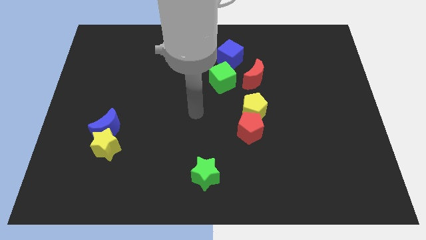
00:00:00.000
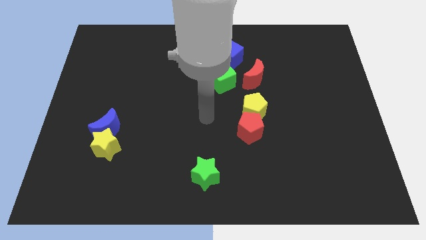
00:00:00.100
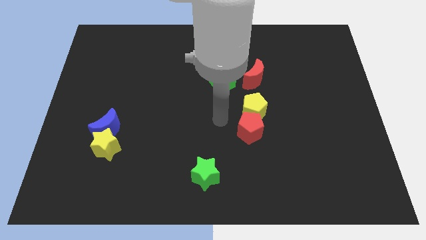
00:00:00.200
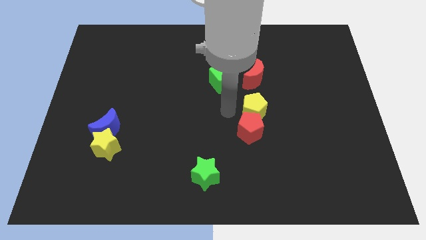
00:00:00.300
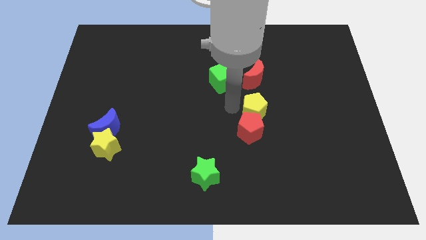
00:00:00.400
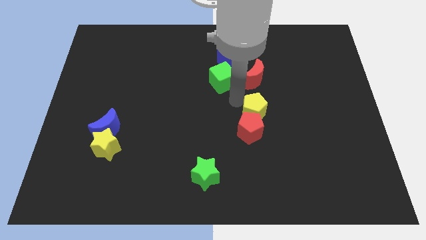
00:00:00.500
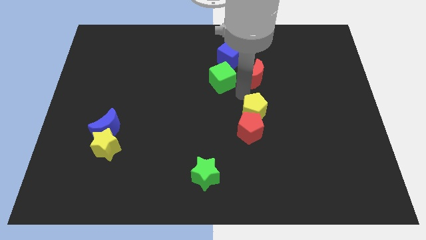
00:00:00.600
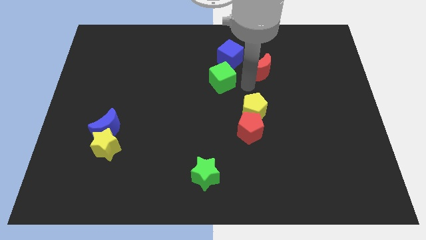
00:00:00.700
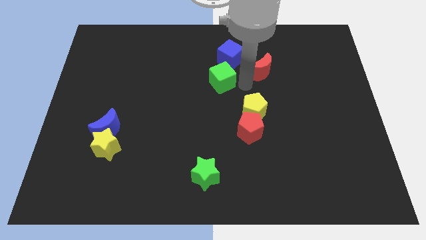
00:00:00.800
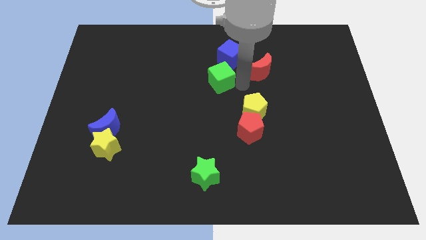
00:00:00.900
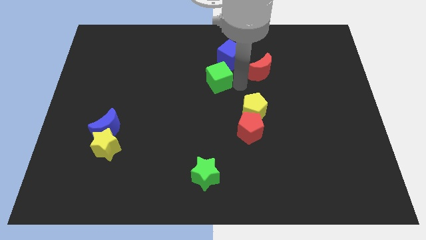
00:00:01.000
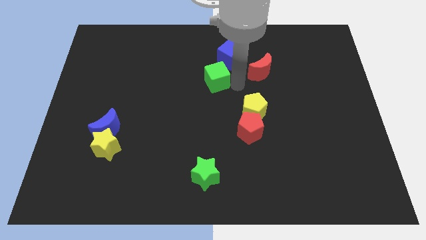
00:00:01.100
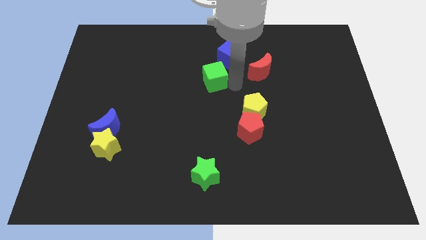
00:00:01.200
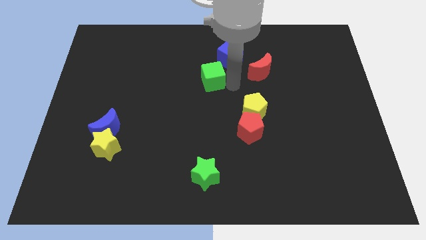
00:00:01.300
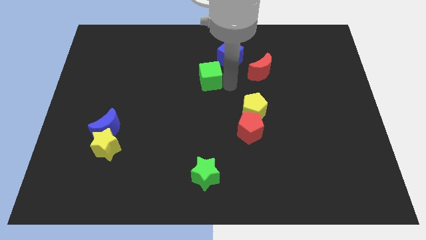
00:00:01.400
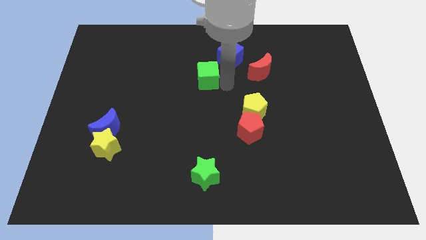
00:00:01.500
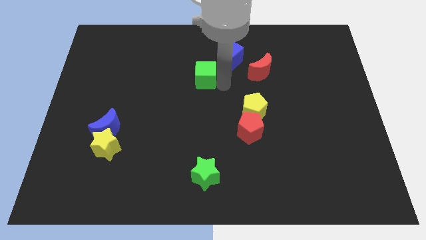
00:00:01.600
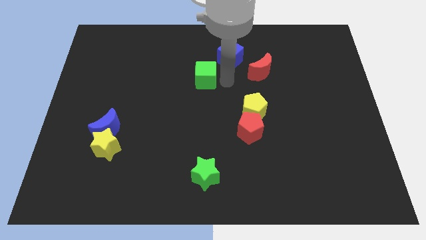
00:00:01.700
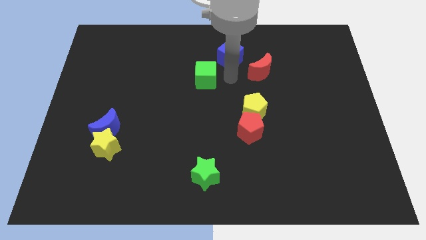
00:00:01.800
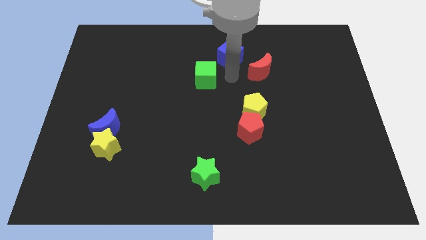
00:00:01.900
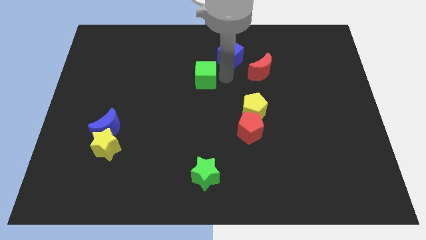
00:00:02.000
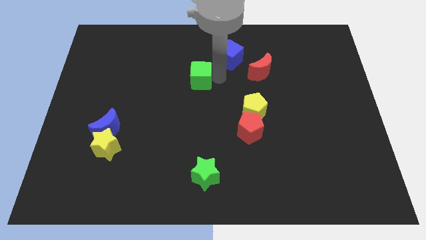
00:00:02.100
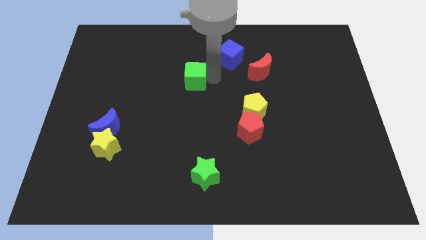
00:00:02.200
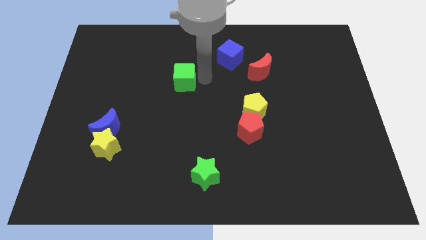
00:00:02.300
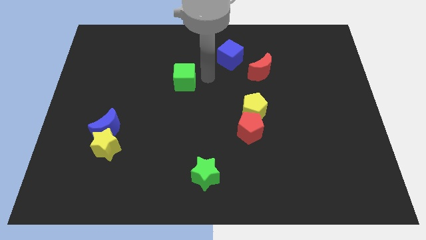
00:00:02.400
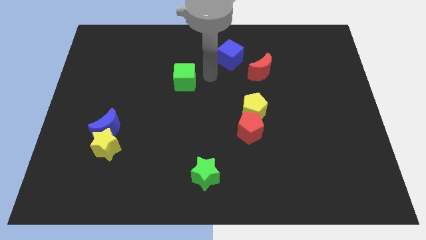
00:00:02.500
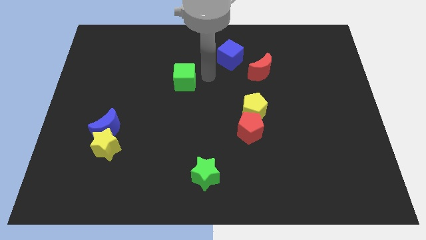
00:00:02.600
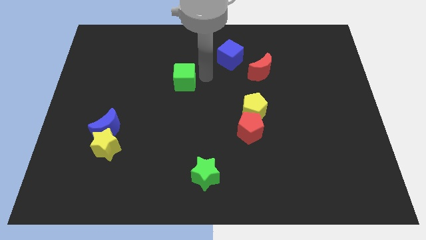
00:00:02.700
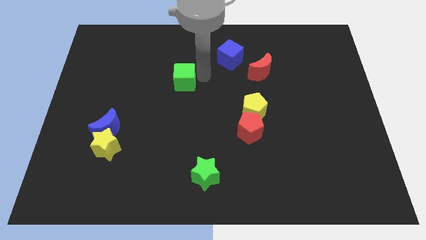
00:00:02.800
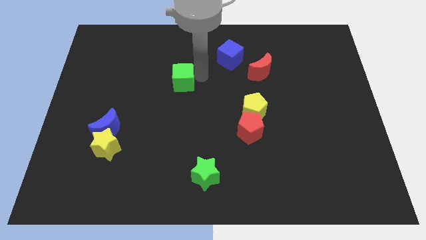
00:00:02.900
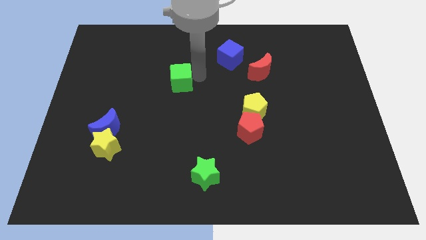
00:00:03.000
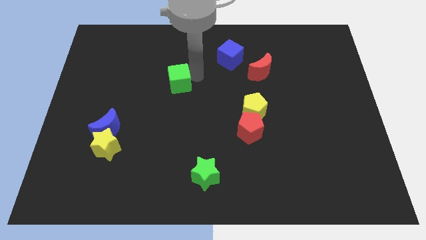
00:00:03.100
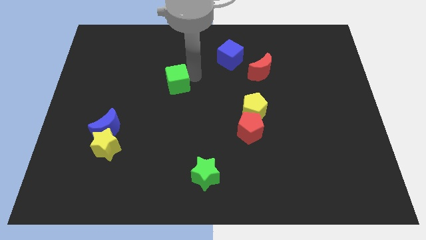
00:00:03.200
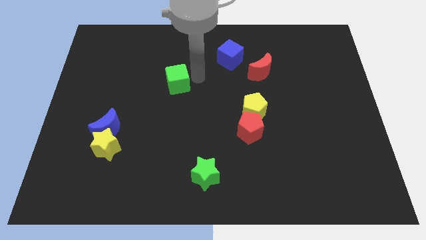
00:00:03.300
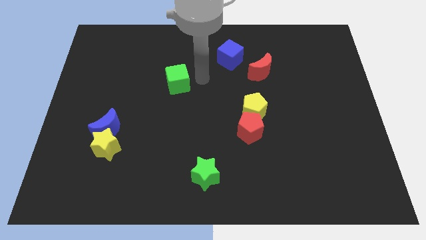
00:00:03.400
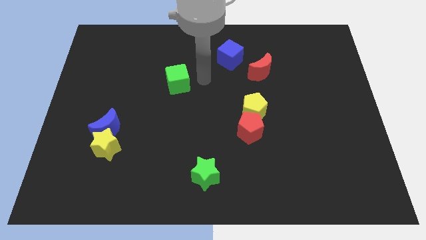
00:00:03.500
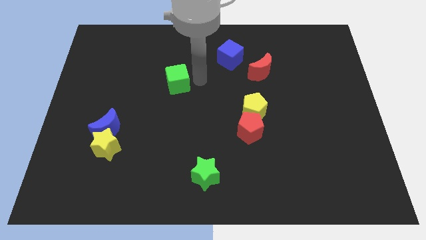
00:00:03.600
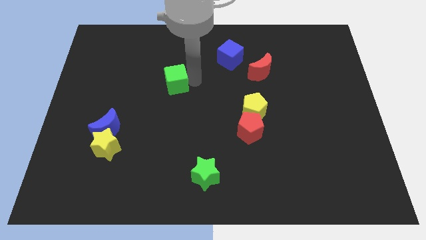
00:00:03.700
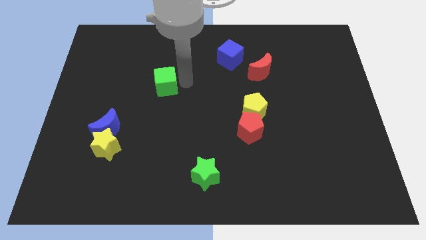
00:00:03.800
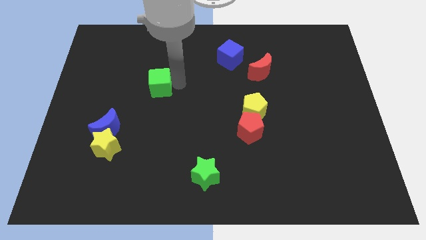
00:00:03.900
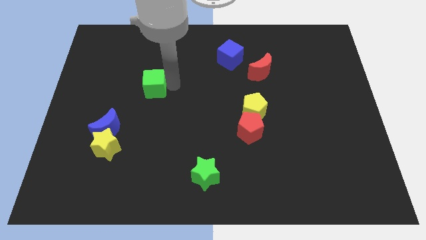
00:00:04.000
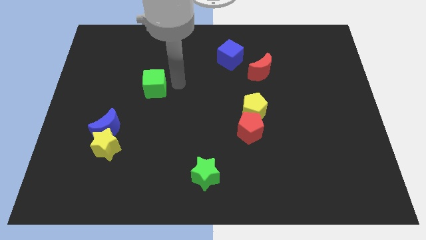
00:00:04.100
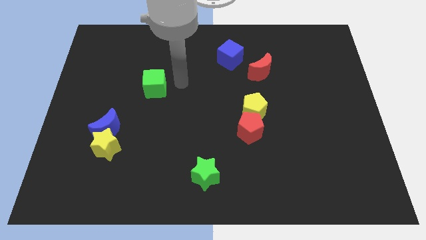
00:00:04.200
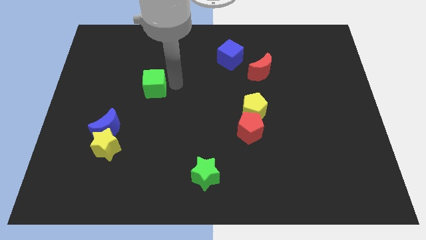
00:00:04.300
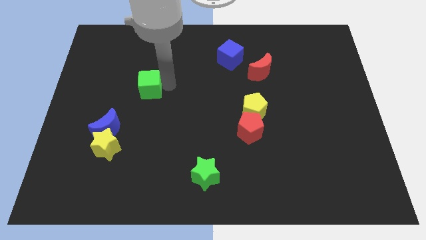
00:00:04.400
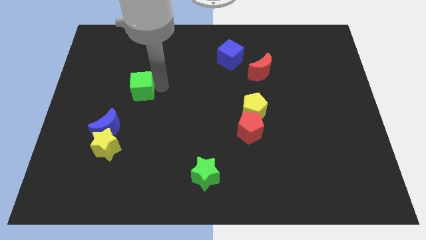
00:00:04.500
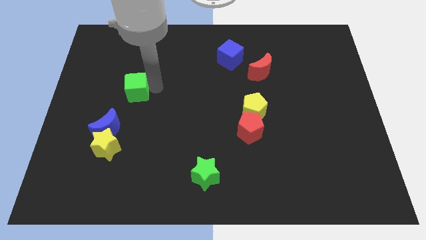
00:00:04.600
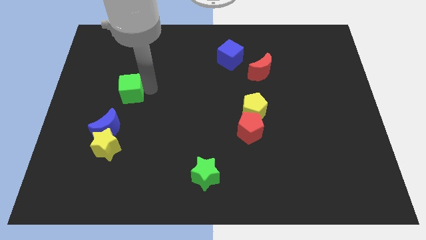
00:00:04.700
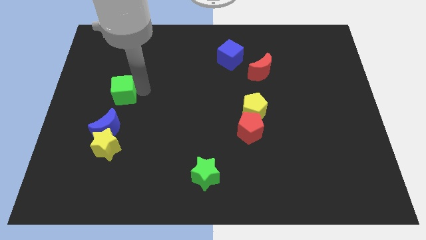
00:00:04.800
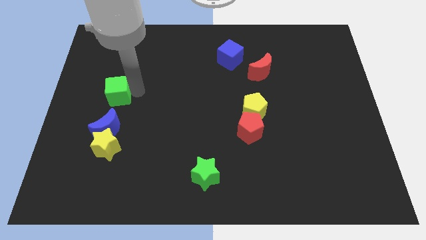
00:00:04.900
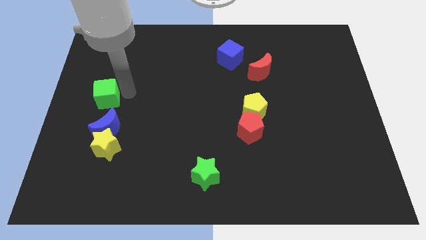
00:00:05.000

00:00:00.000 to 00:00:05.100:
move the green cube to the left side of the board

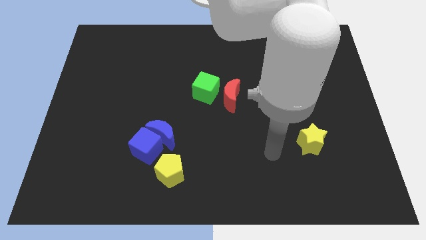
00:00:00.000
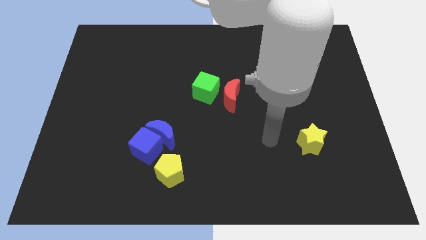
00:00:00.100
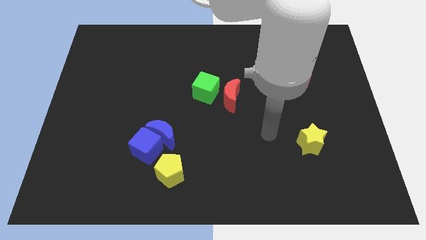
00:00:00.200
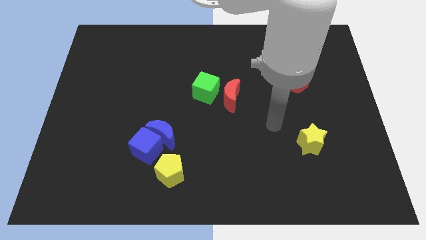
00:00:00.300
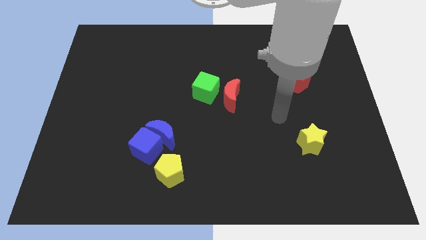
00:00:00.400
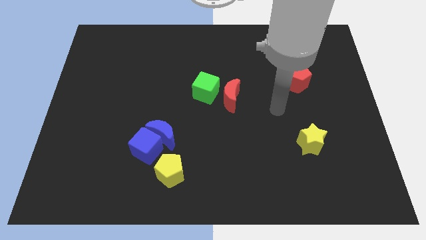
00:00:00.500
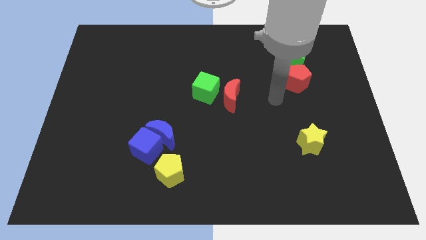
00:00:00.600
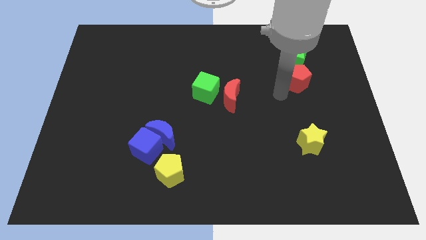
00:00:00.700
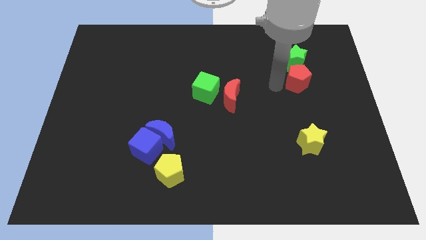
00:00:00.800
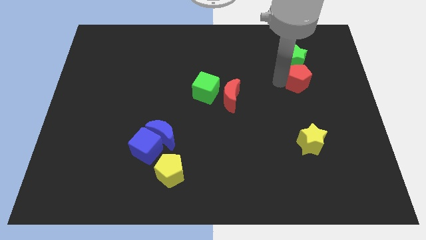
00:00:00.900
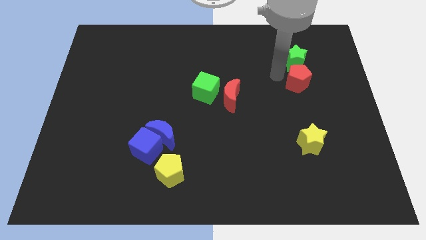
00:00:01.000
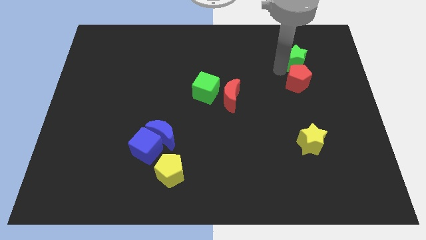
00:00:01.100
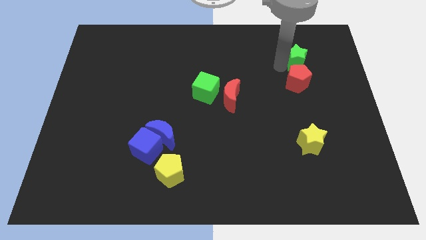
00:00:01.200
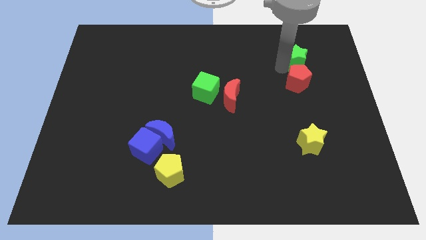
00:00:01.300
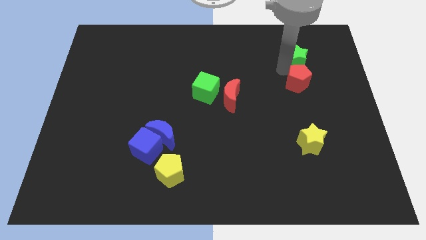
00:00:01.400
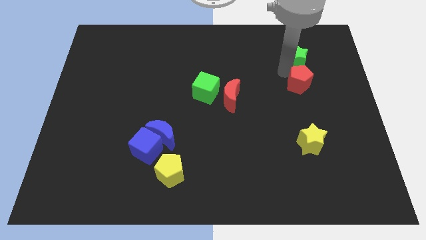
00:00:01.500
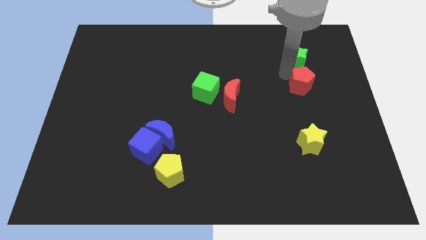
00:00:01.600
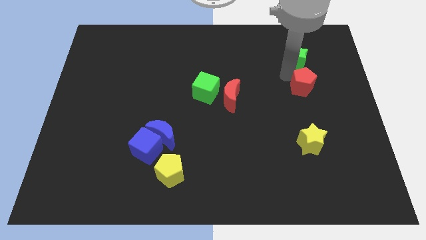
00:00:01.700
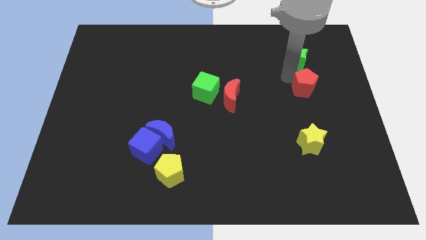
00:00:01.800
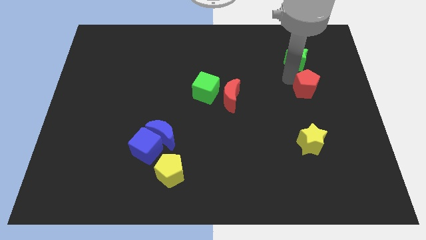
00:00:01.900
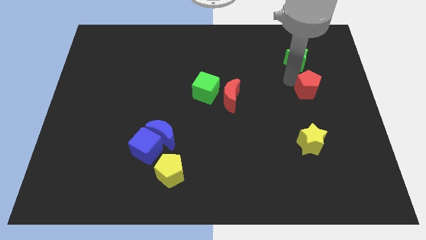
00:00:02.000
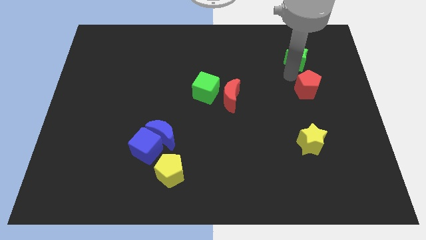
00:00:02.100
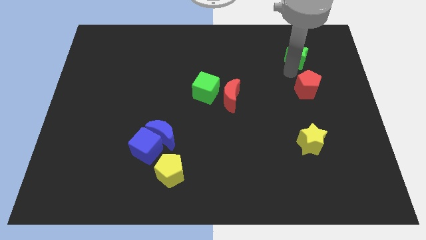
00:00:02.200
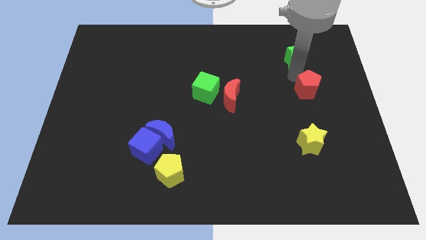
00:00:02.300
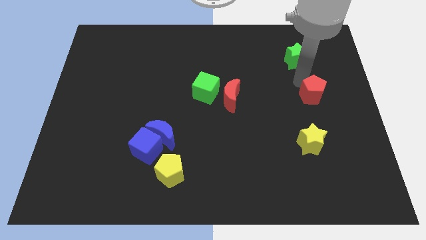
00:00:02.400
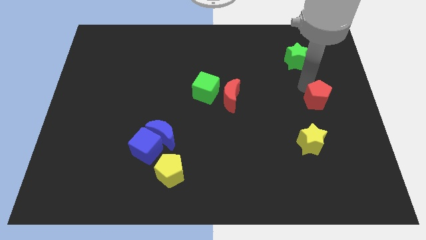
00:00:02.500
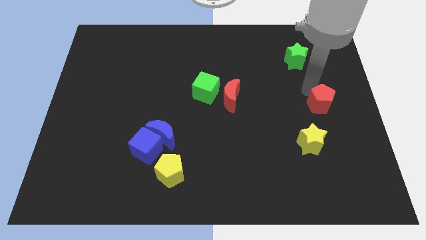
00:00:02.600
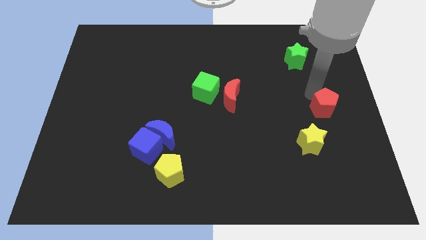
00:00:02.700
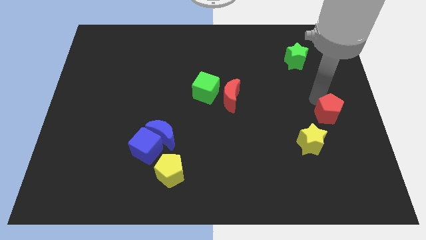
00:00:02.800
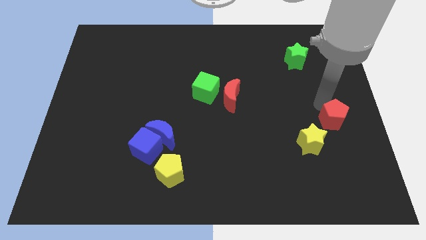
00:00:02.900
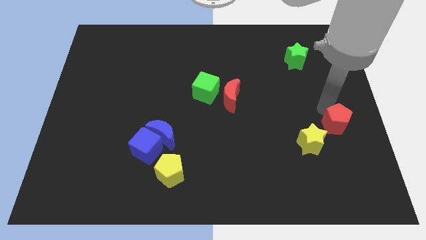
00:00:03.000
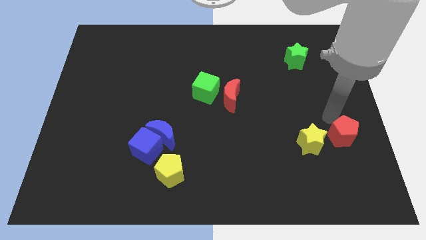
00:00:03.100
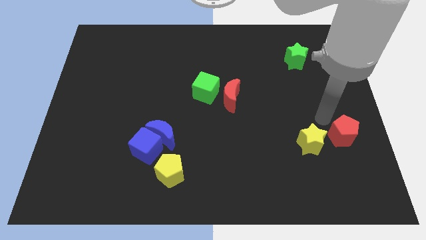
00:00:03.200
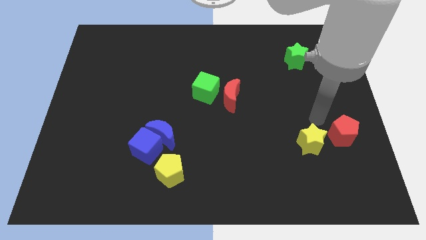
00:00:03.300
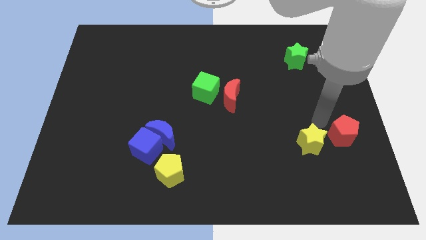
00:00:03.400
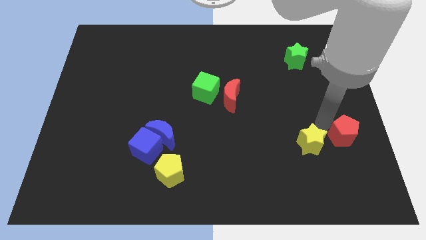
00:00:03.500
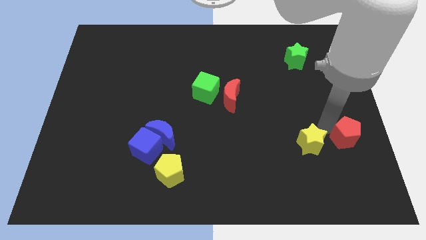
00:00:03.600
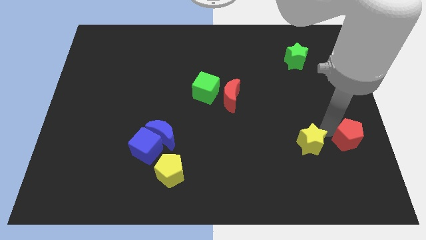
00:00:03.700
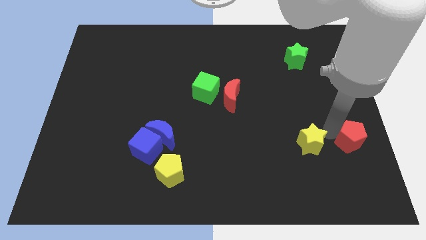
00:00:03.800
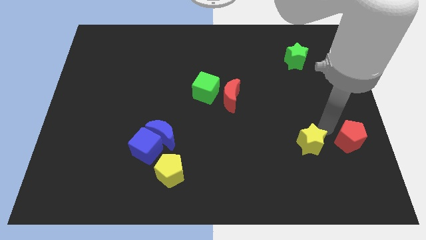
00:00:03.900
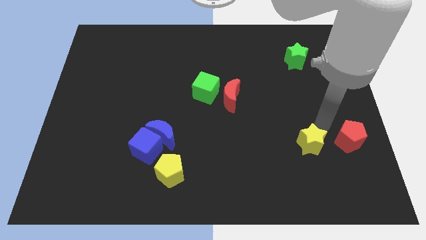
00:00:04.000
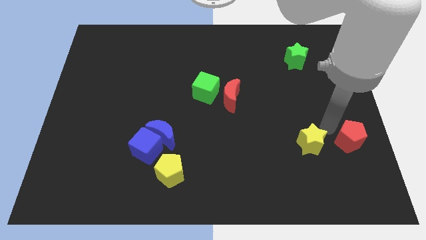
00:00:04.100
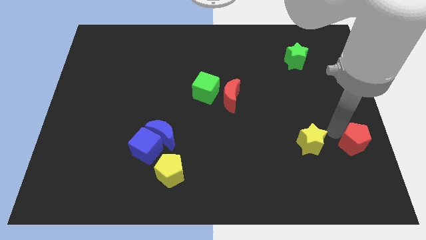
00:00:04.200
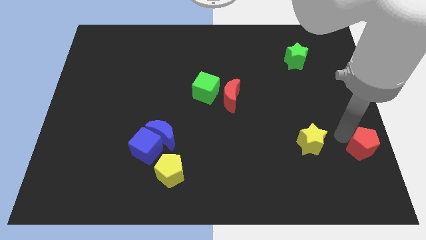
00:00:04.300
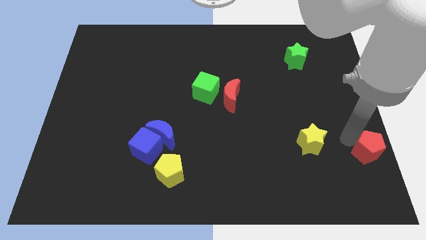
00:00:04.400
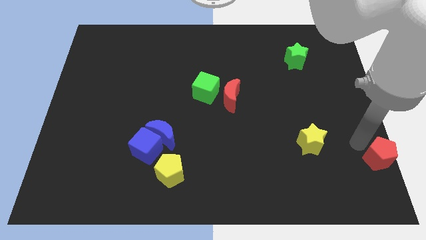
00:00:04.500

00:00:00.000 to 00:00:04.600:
slide the red pentagon to the bottom right
